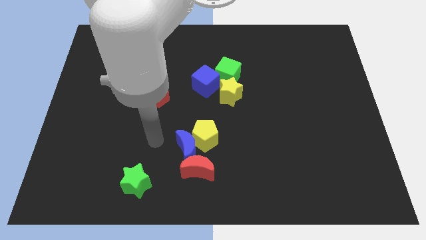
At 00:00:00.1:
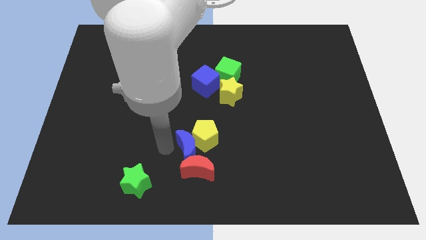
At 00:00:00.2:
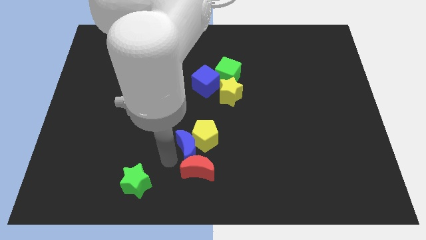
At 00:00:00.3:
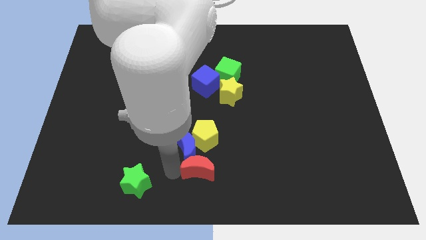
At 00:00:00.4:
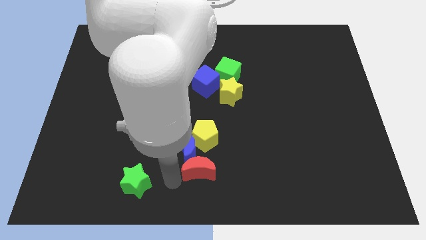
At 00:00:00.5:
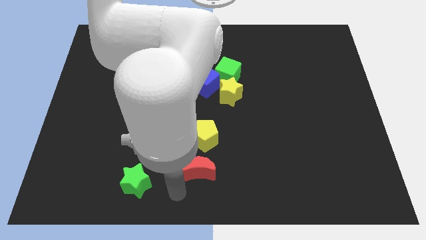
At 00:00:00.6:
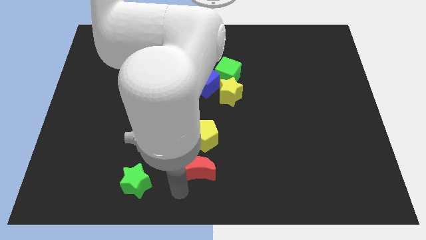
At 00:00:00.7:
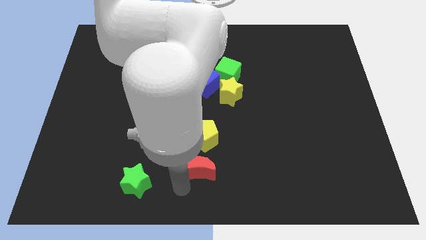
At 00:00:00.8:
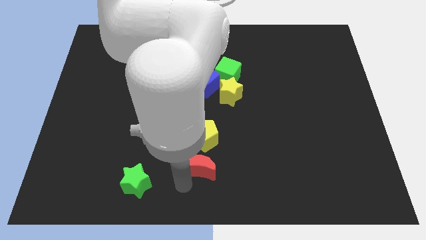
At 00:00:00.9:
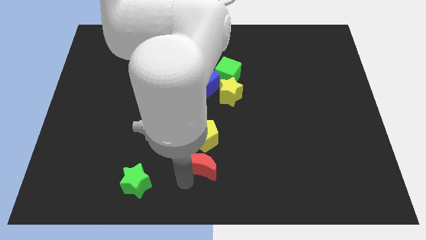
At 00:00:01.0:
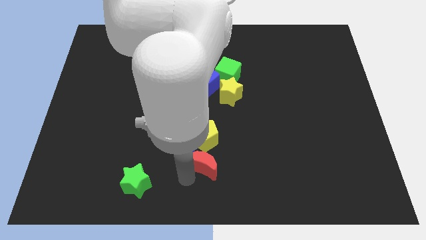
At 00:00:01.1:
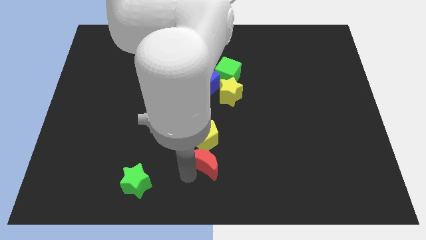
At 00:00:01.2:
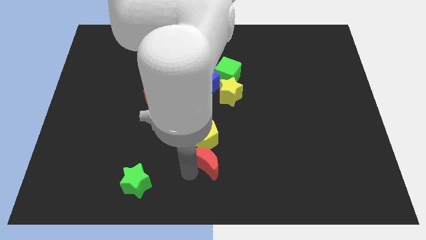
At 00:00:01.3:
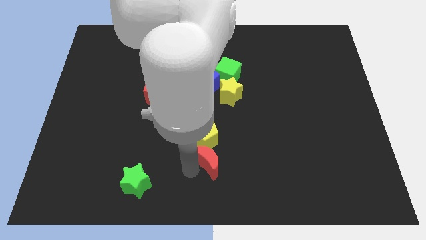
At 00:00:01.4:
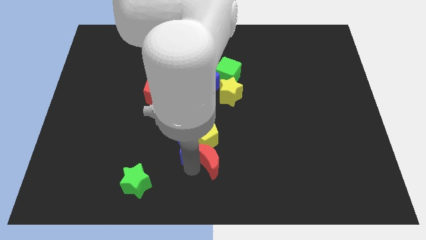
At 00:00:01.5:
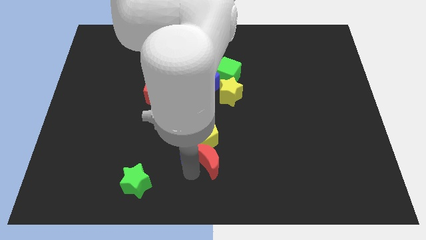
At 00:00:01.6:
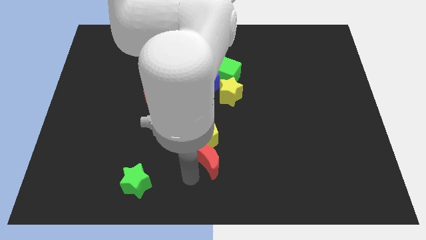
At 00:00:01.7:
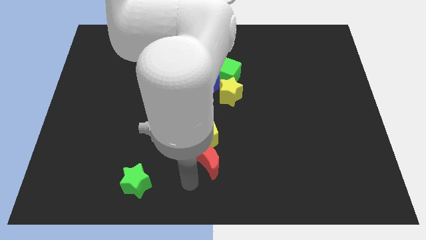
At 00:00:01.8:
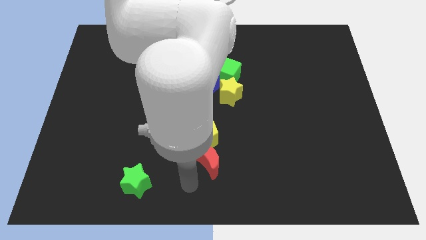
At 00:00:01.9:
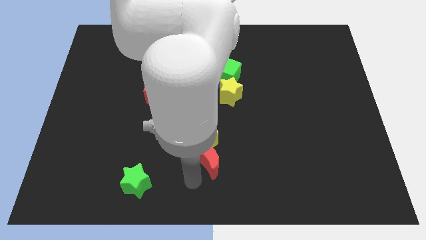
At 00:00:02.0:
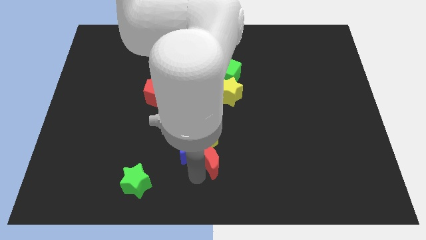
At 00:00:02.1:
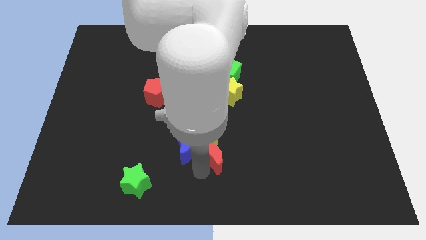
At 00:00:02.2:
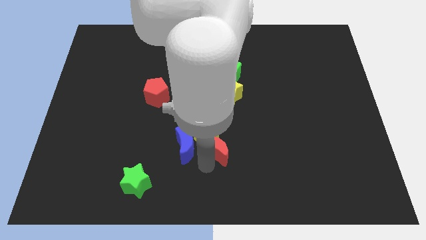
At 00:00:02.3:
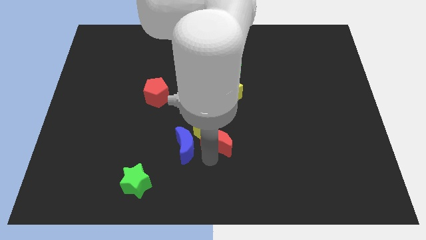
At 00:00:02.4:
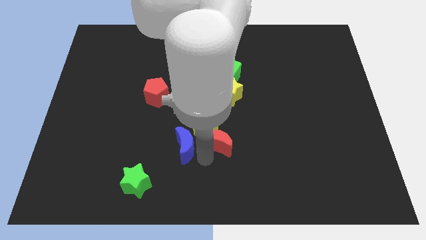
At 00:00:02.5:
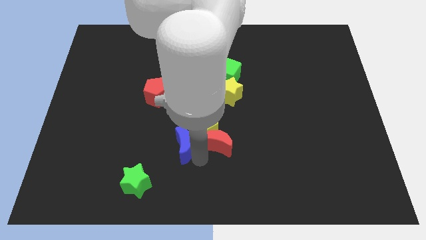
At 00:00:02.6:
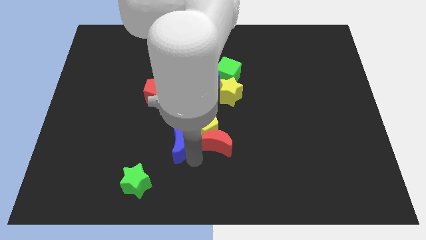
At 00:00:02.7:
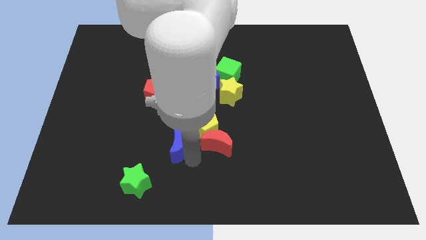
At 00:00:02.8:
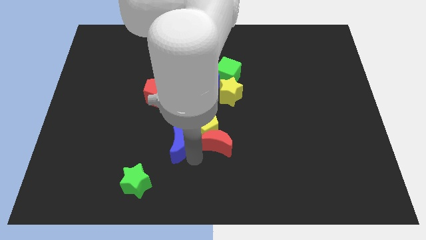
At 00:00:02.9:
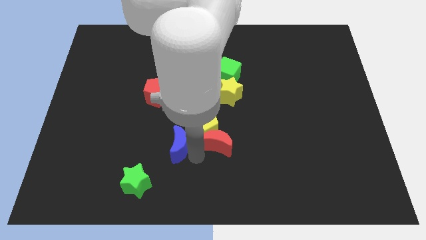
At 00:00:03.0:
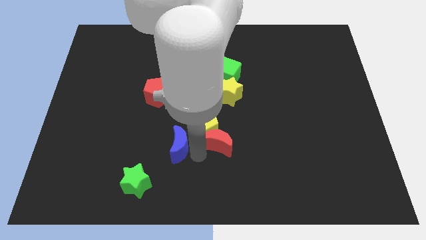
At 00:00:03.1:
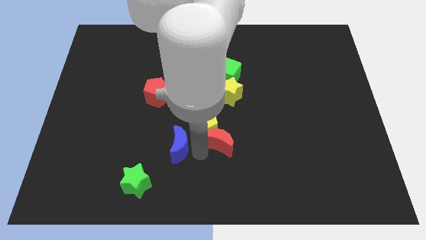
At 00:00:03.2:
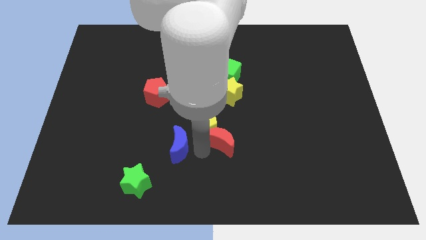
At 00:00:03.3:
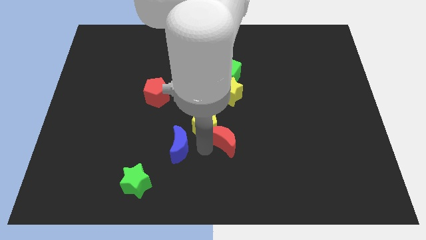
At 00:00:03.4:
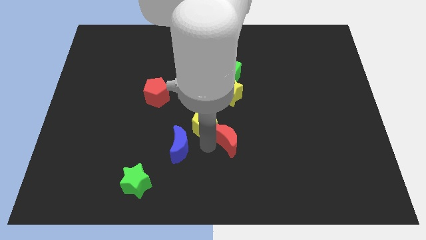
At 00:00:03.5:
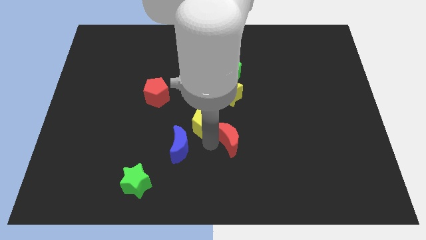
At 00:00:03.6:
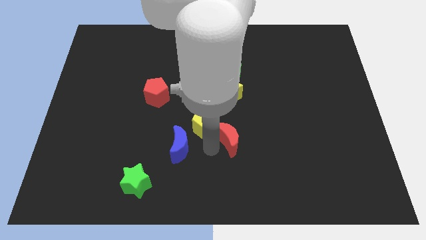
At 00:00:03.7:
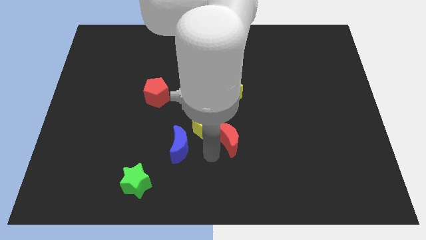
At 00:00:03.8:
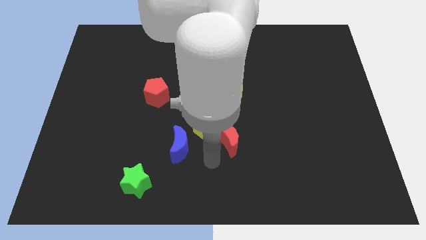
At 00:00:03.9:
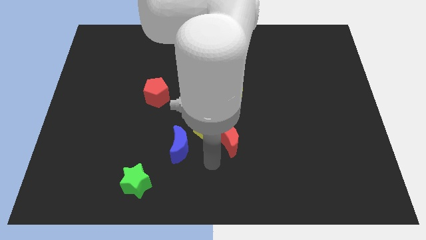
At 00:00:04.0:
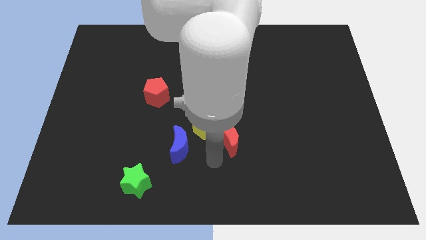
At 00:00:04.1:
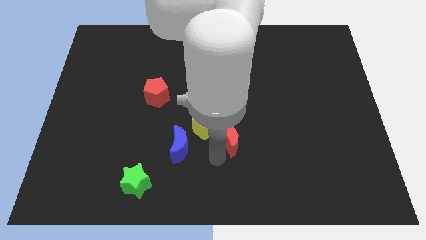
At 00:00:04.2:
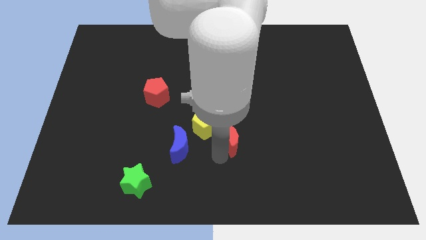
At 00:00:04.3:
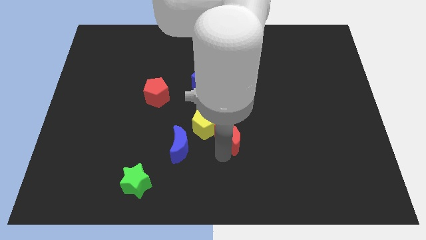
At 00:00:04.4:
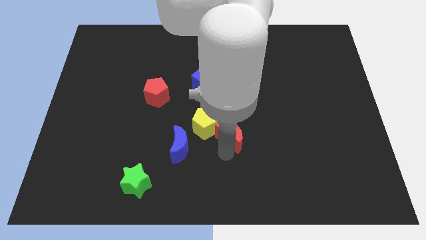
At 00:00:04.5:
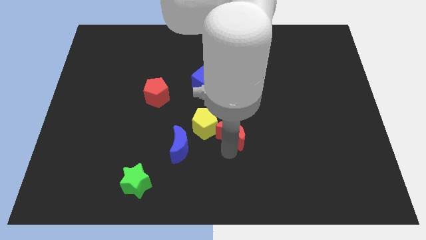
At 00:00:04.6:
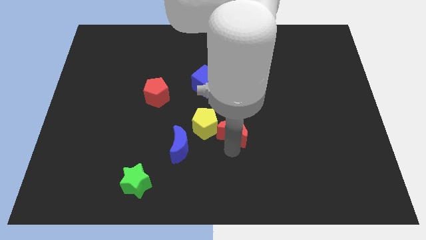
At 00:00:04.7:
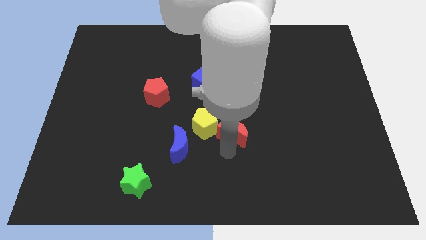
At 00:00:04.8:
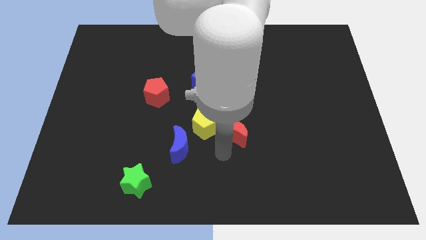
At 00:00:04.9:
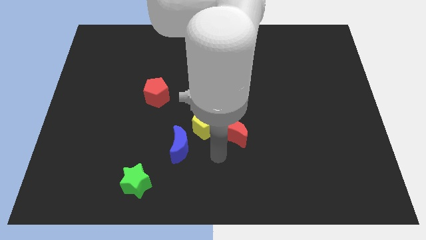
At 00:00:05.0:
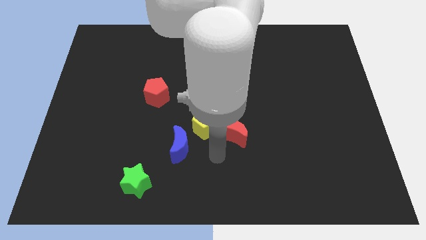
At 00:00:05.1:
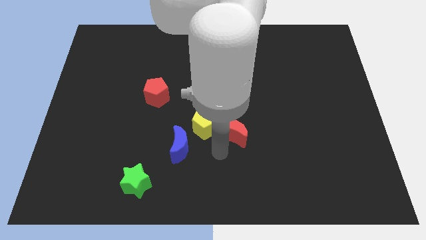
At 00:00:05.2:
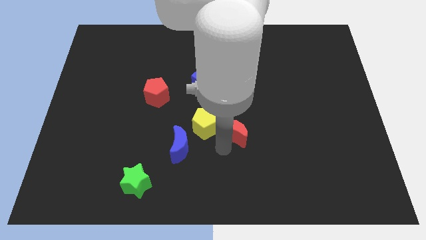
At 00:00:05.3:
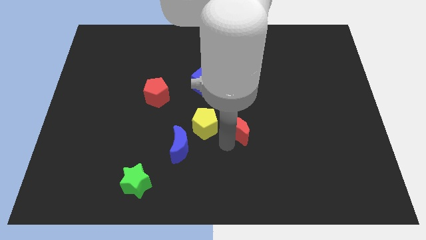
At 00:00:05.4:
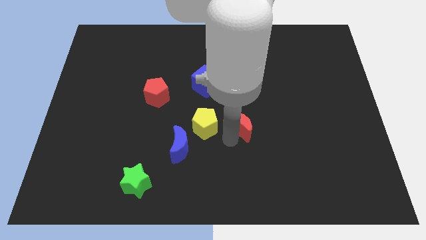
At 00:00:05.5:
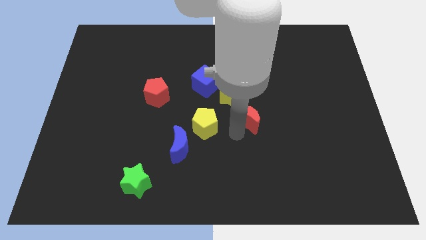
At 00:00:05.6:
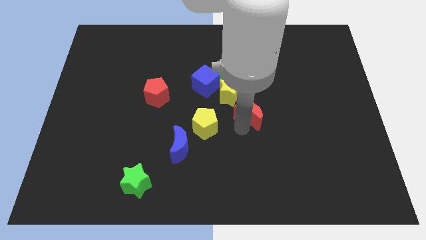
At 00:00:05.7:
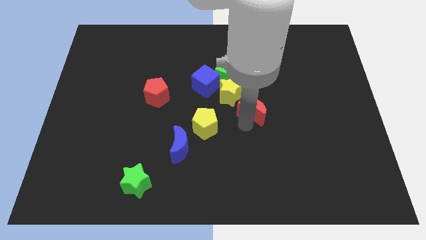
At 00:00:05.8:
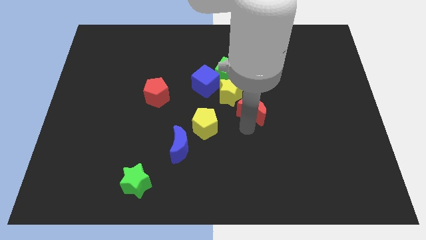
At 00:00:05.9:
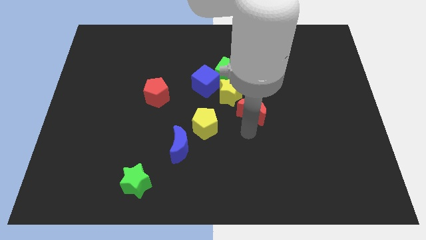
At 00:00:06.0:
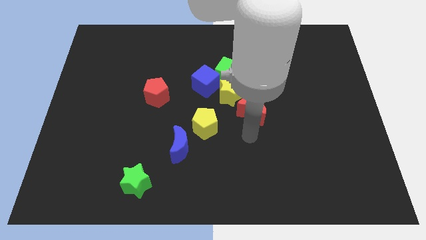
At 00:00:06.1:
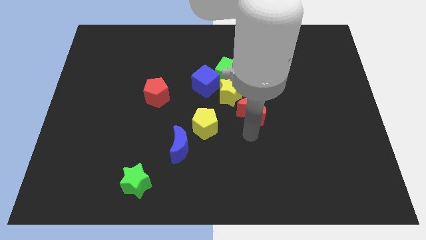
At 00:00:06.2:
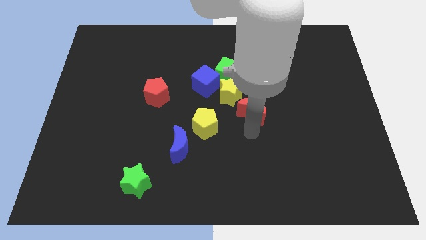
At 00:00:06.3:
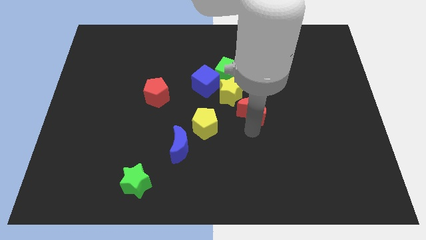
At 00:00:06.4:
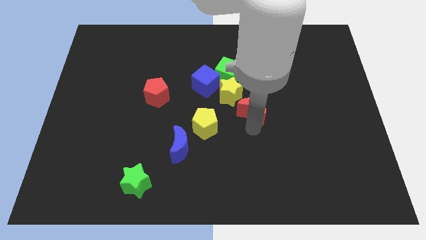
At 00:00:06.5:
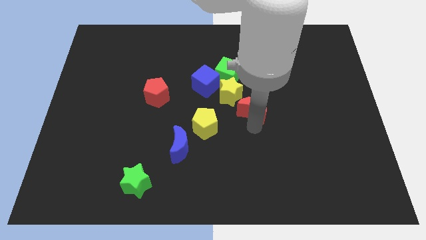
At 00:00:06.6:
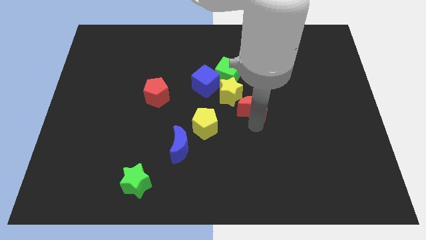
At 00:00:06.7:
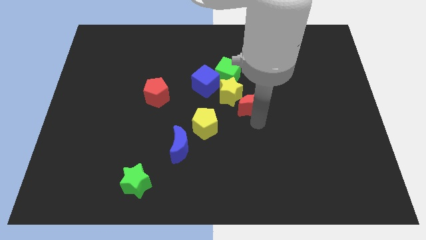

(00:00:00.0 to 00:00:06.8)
move the red moon upwards and right diagonally

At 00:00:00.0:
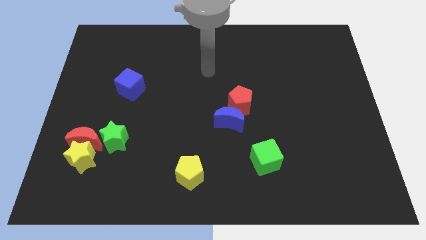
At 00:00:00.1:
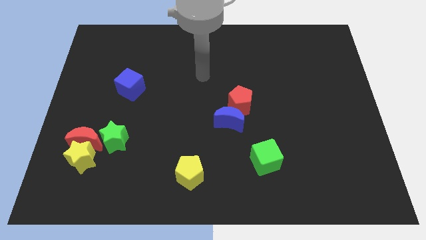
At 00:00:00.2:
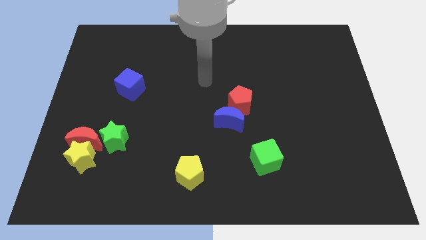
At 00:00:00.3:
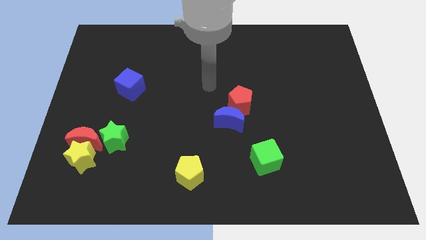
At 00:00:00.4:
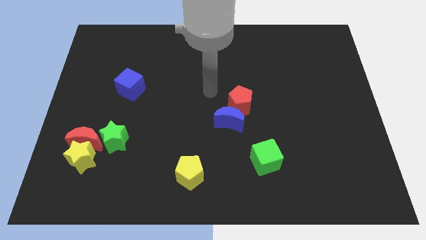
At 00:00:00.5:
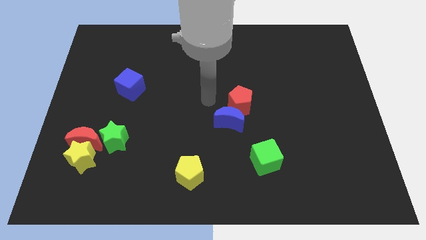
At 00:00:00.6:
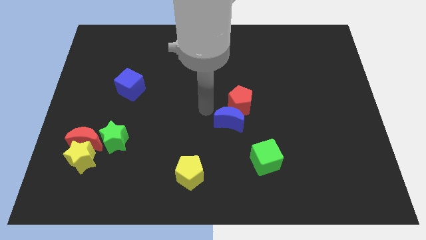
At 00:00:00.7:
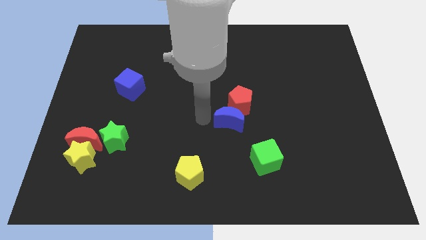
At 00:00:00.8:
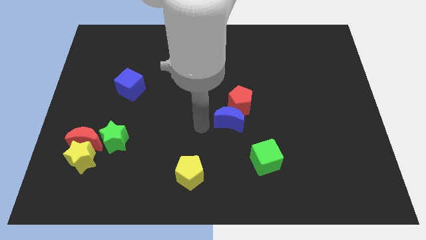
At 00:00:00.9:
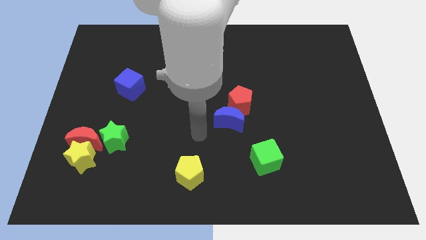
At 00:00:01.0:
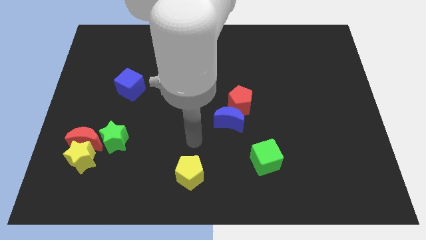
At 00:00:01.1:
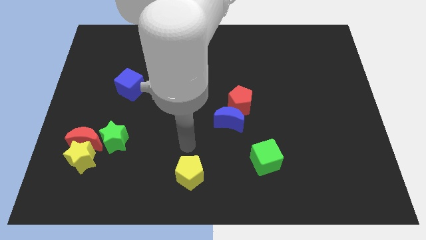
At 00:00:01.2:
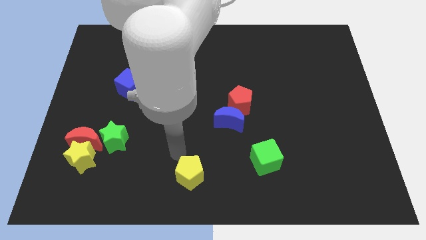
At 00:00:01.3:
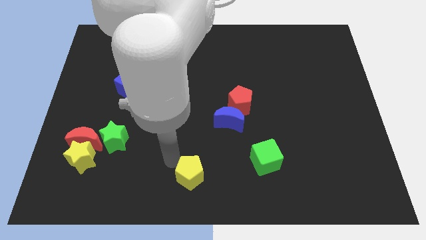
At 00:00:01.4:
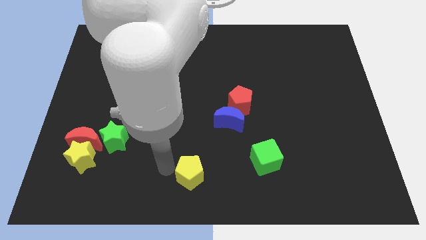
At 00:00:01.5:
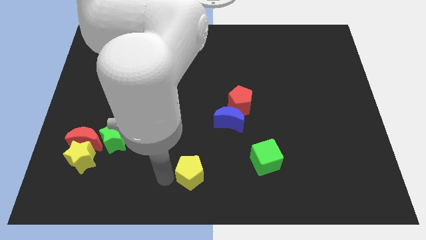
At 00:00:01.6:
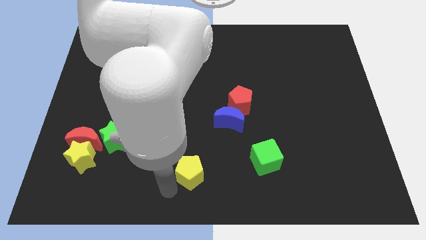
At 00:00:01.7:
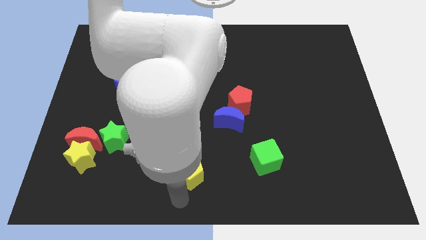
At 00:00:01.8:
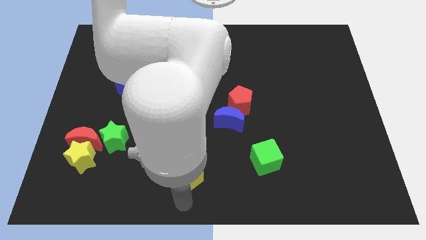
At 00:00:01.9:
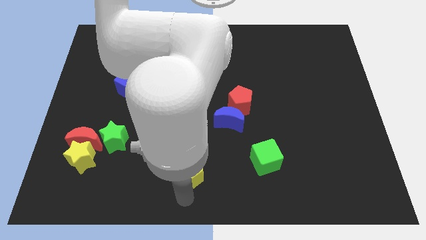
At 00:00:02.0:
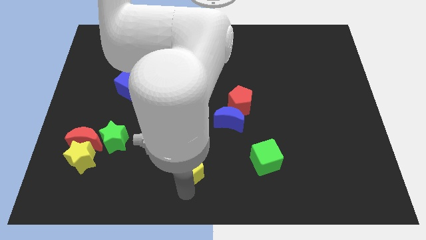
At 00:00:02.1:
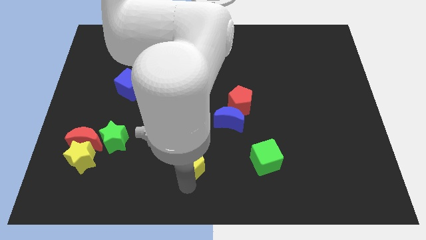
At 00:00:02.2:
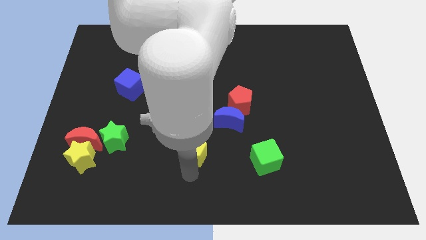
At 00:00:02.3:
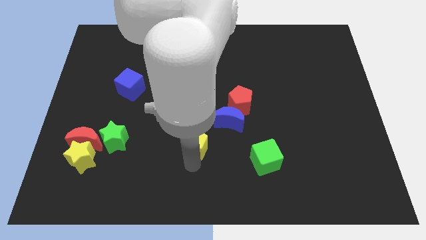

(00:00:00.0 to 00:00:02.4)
push the yellow pentagon up slightly
